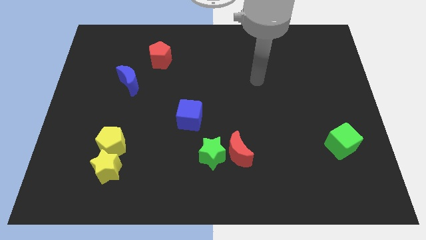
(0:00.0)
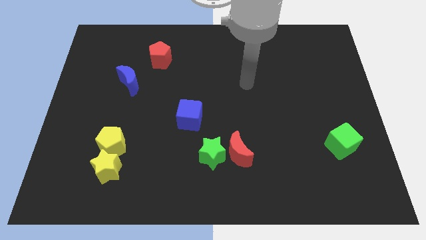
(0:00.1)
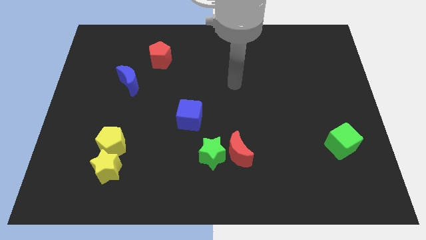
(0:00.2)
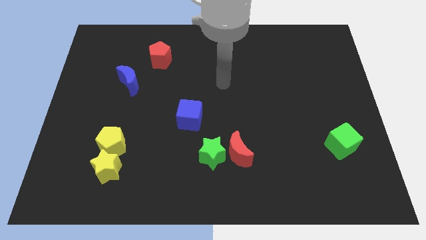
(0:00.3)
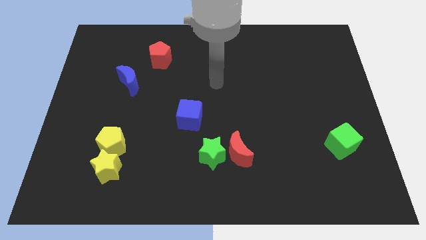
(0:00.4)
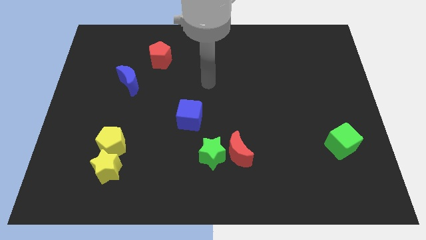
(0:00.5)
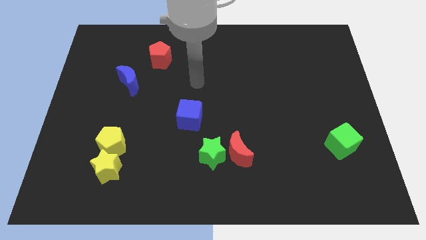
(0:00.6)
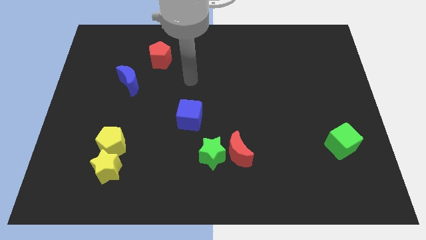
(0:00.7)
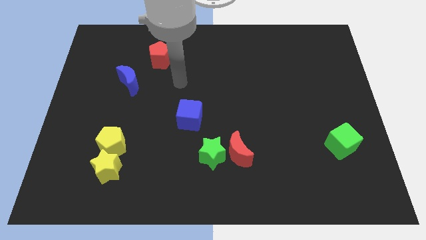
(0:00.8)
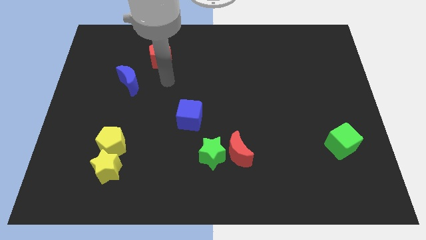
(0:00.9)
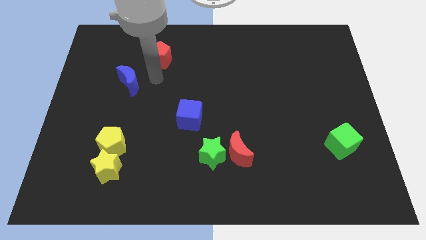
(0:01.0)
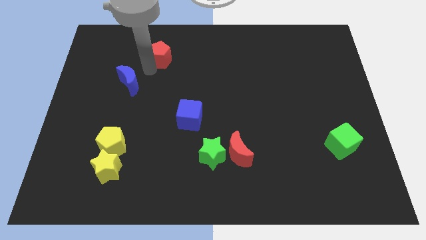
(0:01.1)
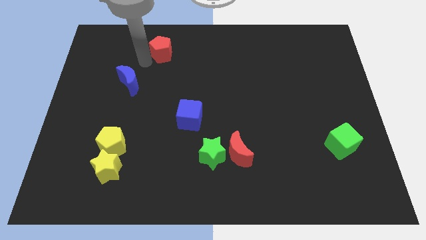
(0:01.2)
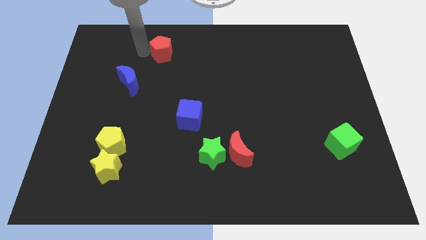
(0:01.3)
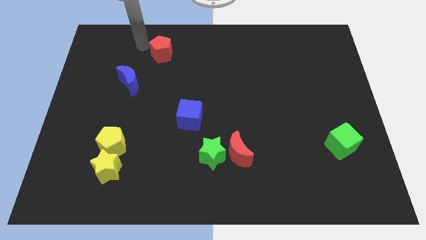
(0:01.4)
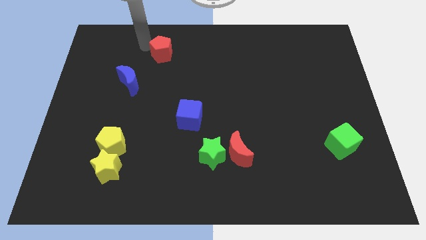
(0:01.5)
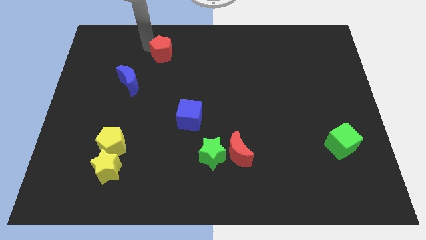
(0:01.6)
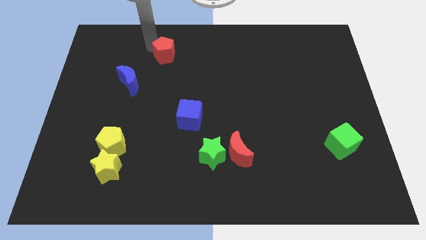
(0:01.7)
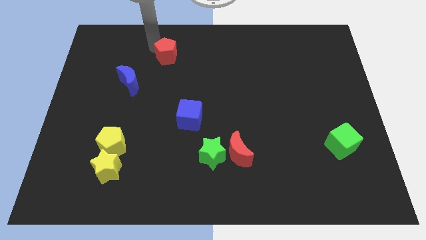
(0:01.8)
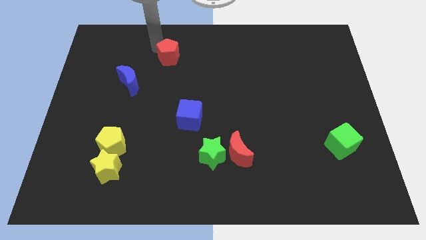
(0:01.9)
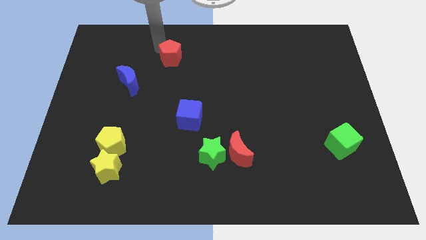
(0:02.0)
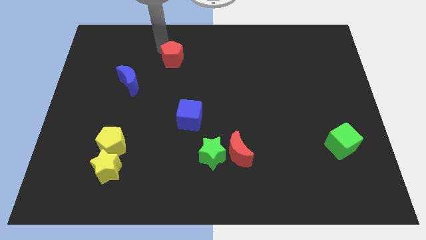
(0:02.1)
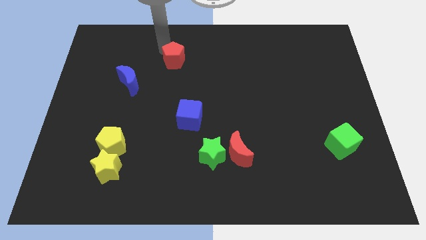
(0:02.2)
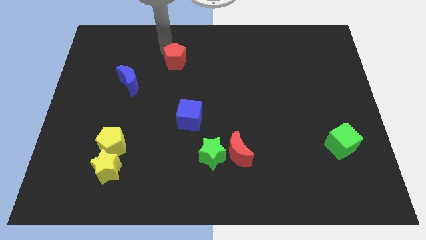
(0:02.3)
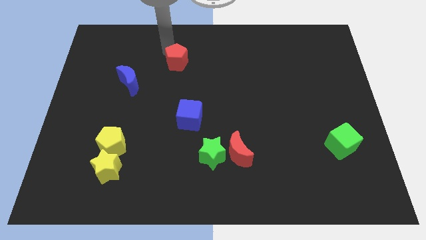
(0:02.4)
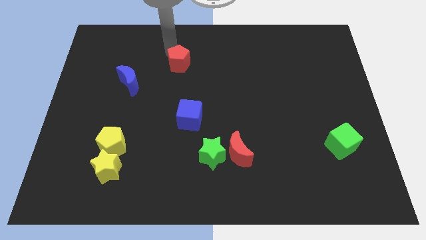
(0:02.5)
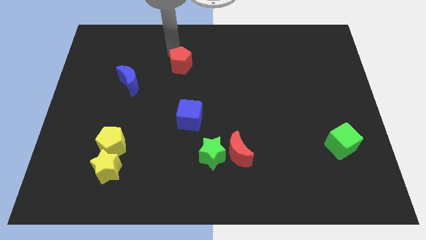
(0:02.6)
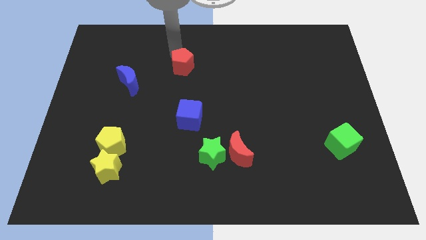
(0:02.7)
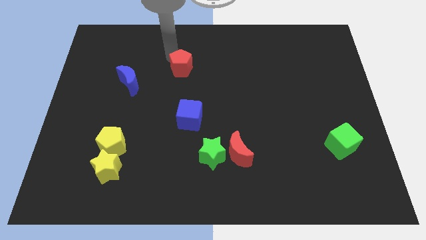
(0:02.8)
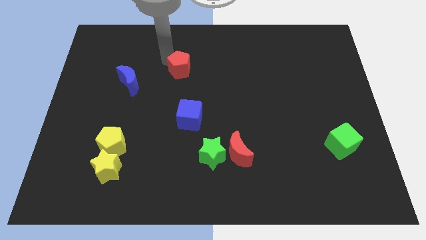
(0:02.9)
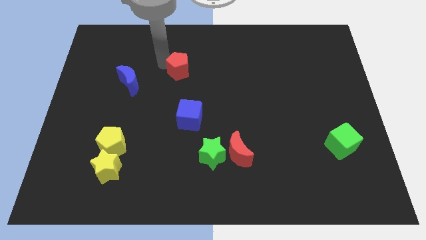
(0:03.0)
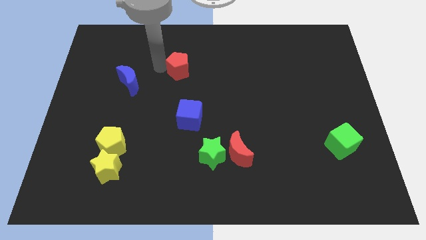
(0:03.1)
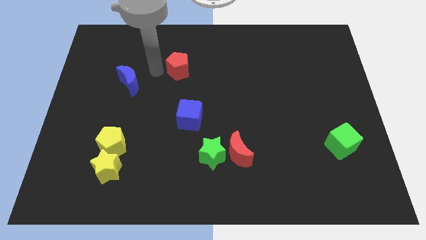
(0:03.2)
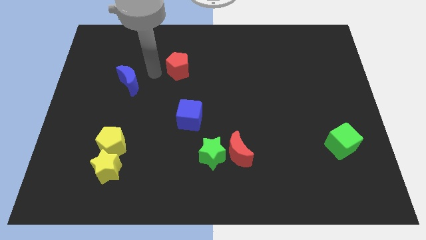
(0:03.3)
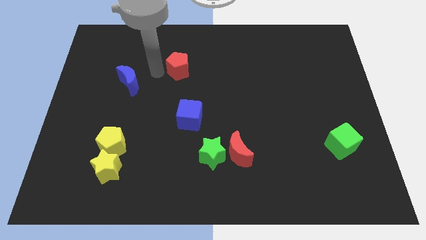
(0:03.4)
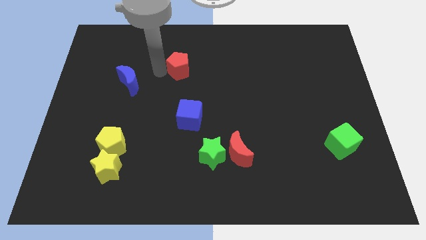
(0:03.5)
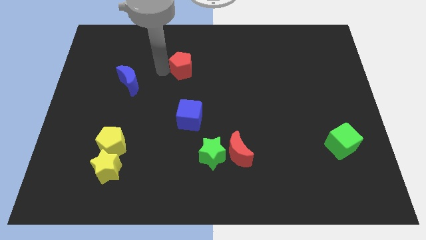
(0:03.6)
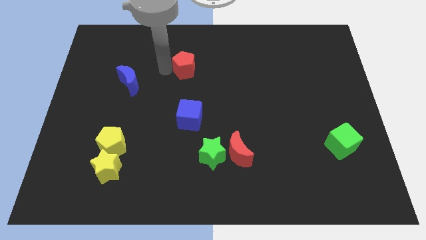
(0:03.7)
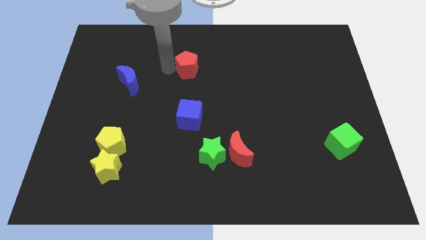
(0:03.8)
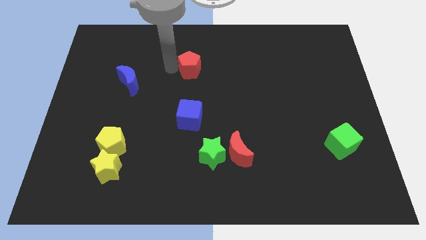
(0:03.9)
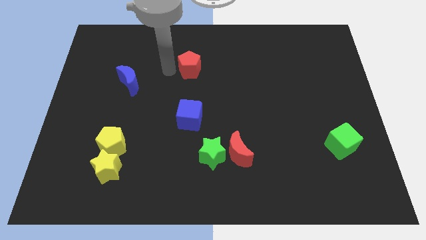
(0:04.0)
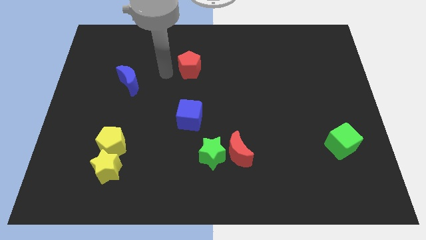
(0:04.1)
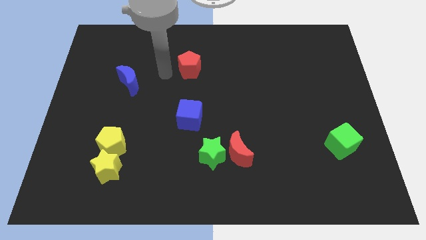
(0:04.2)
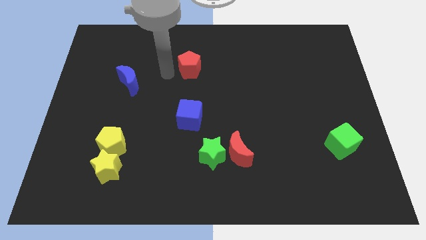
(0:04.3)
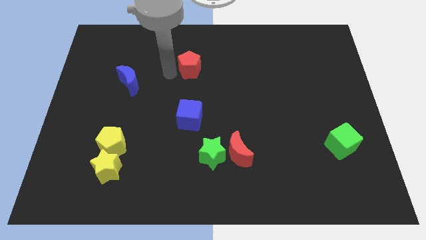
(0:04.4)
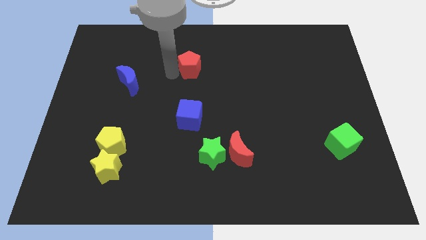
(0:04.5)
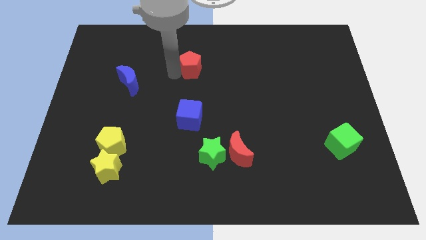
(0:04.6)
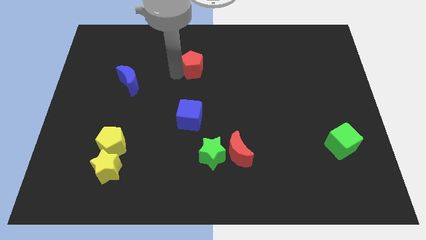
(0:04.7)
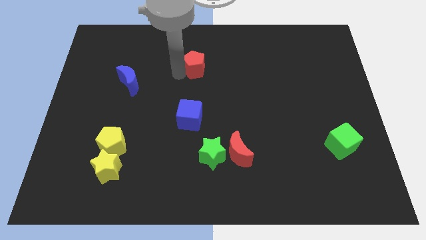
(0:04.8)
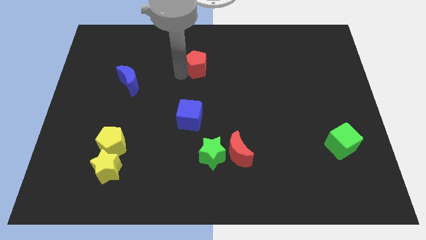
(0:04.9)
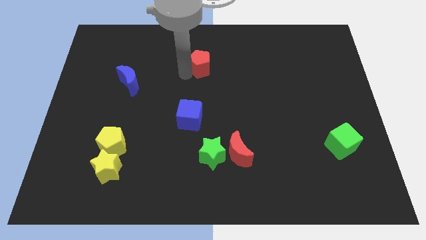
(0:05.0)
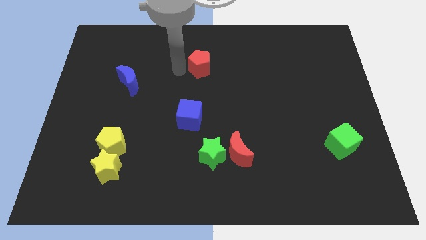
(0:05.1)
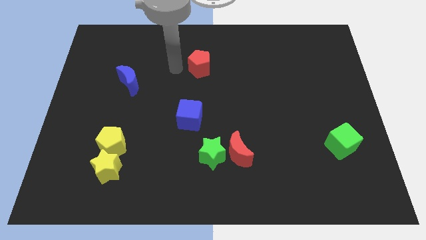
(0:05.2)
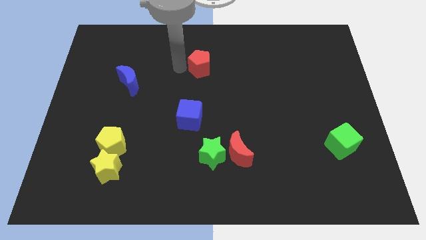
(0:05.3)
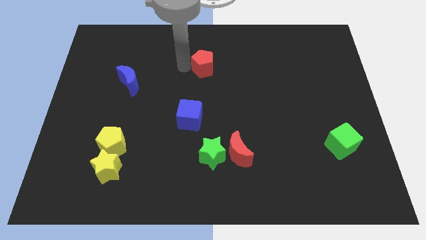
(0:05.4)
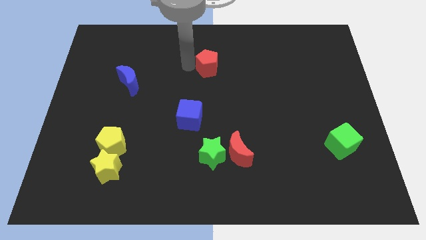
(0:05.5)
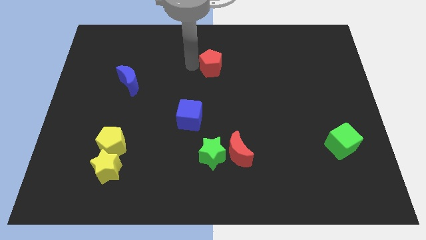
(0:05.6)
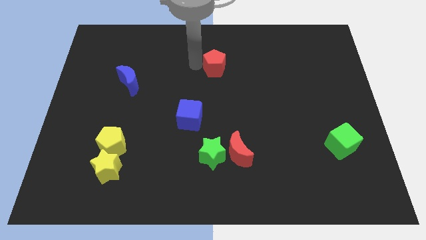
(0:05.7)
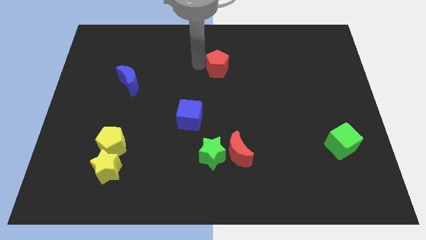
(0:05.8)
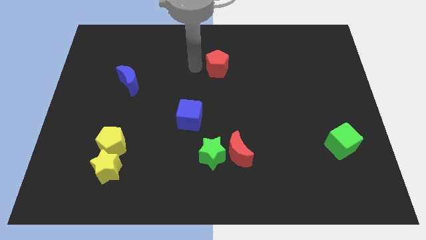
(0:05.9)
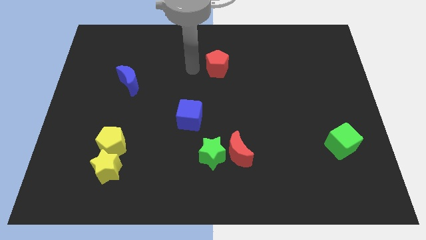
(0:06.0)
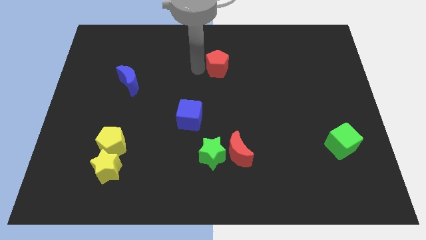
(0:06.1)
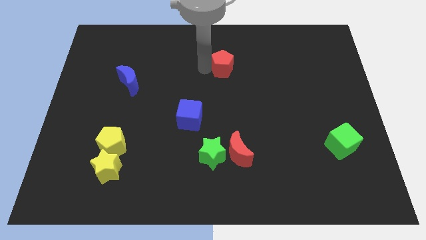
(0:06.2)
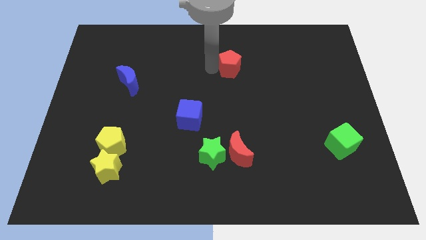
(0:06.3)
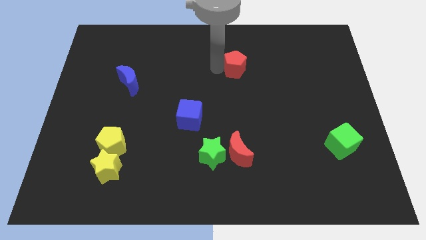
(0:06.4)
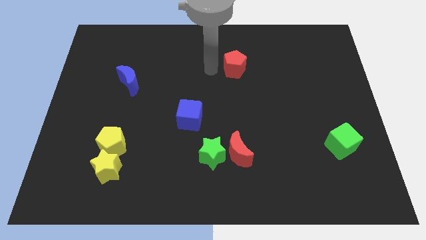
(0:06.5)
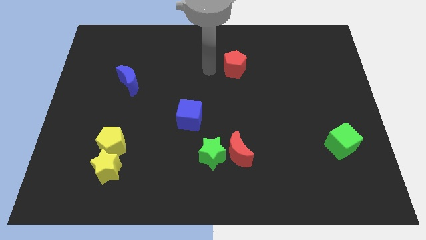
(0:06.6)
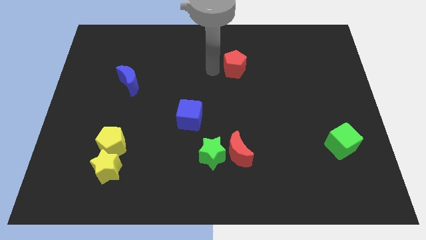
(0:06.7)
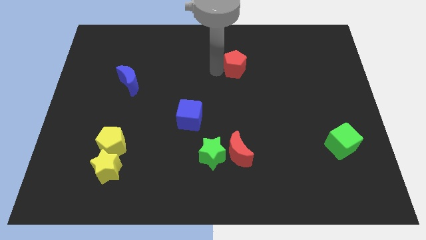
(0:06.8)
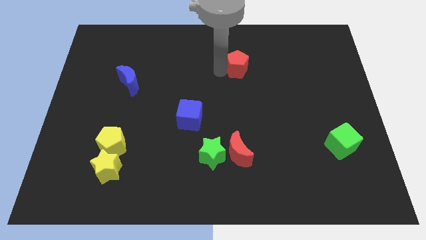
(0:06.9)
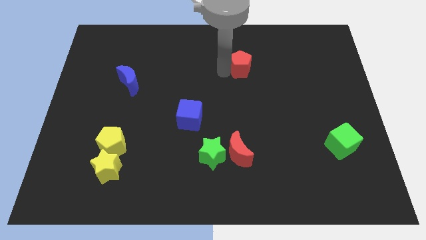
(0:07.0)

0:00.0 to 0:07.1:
slide the red pentagon to the right

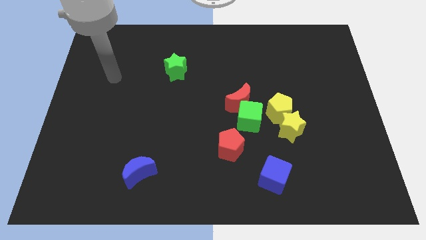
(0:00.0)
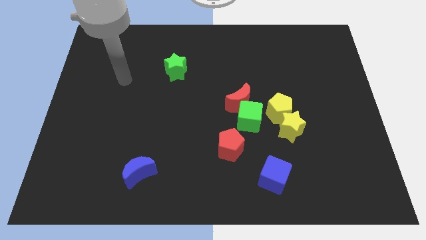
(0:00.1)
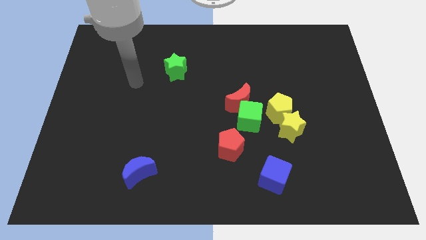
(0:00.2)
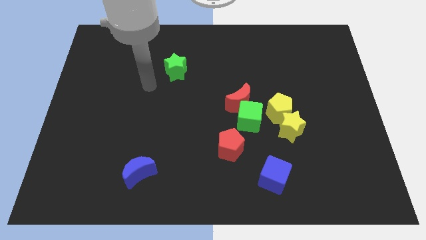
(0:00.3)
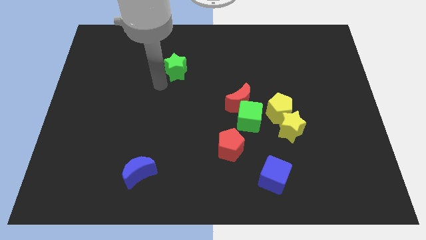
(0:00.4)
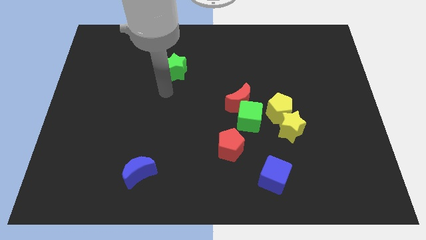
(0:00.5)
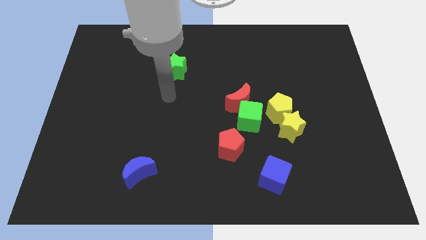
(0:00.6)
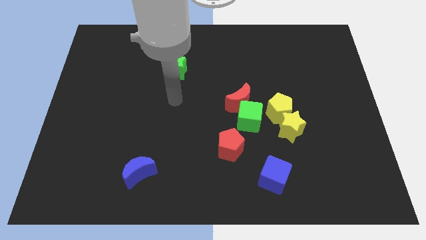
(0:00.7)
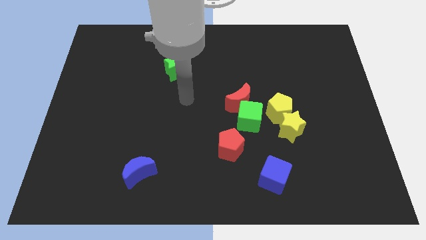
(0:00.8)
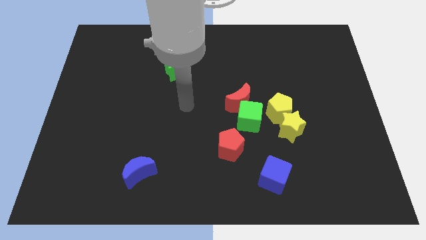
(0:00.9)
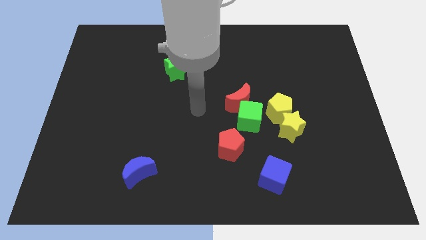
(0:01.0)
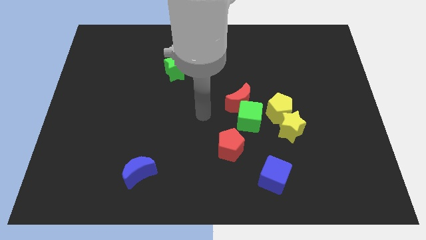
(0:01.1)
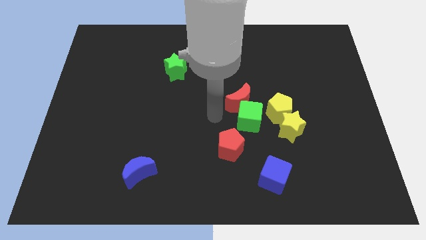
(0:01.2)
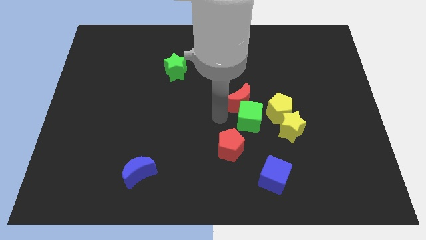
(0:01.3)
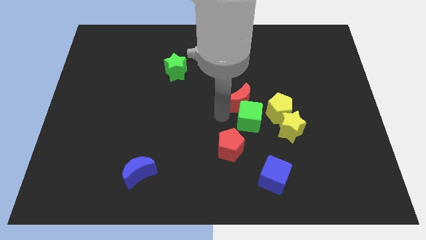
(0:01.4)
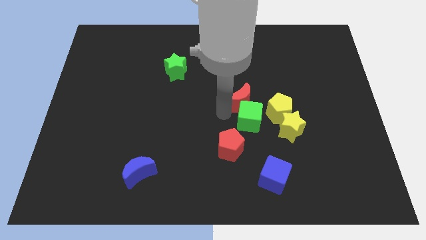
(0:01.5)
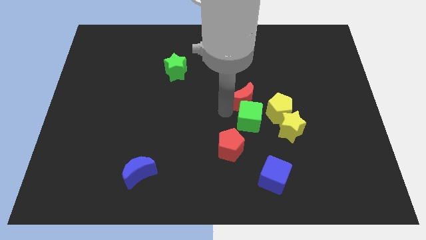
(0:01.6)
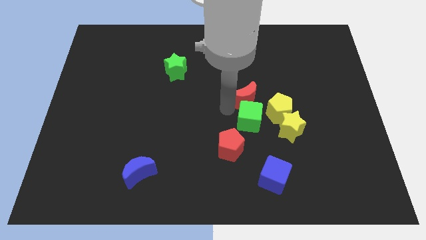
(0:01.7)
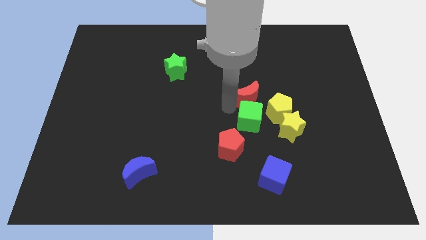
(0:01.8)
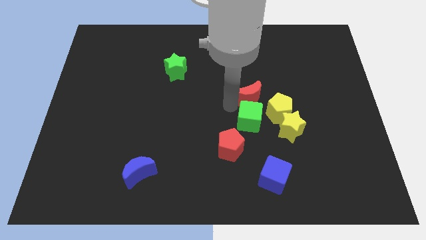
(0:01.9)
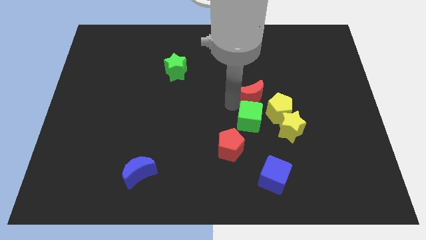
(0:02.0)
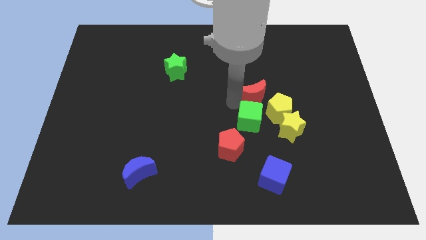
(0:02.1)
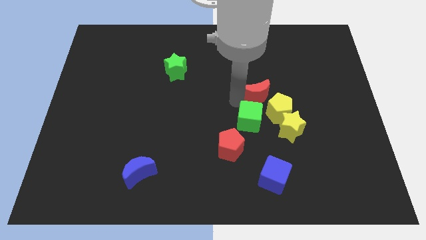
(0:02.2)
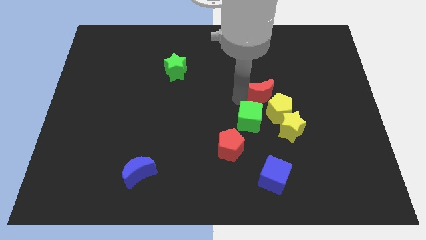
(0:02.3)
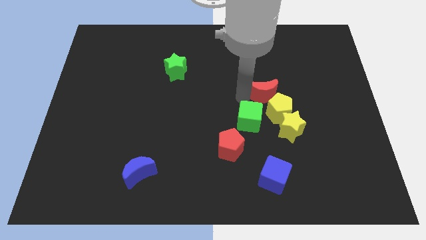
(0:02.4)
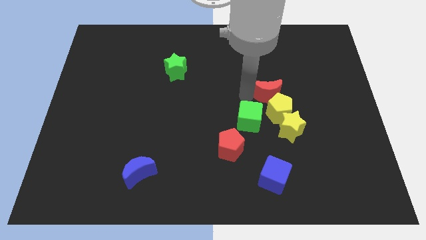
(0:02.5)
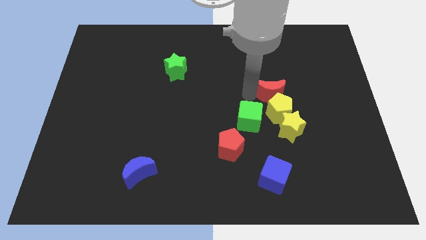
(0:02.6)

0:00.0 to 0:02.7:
slightly push the red moon diagonally up and right
